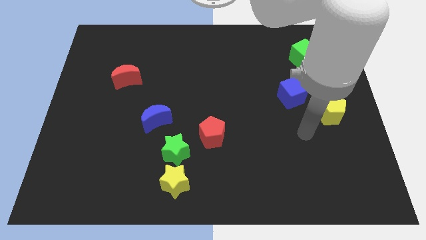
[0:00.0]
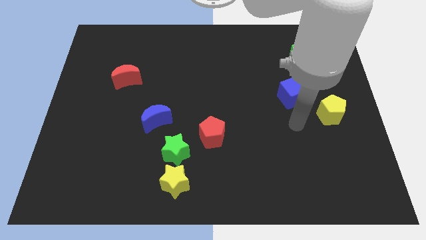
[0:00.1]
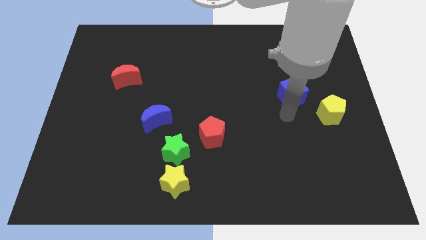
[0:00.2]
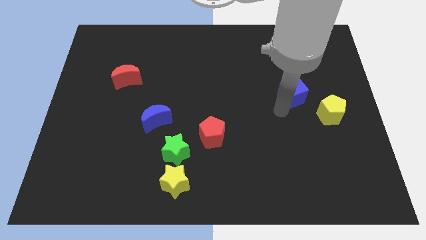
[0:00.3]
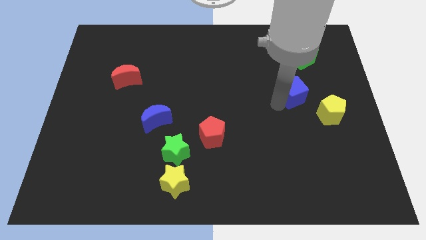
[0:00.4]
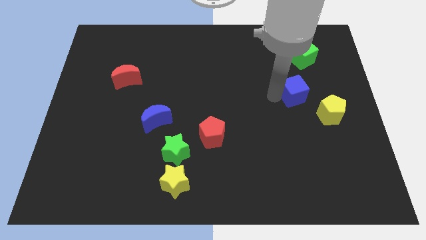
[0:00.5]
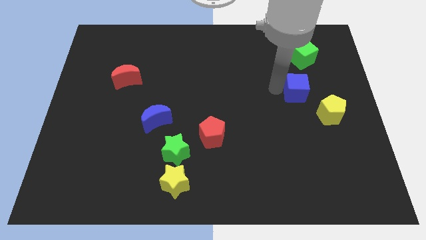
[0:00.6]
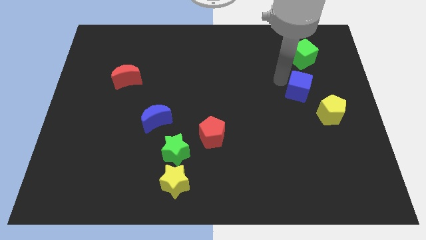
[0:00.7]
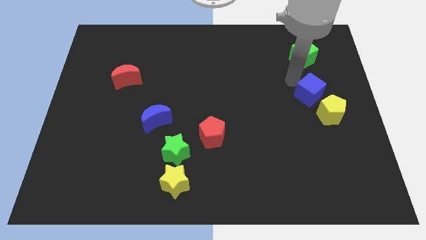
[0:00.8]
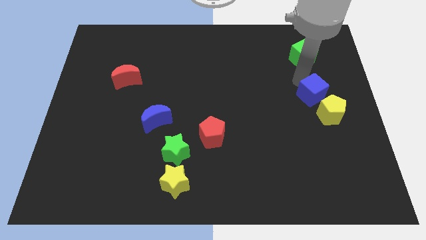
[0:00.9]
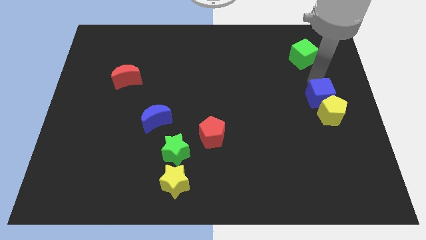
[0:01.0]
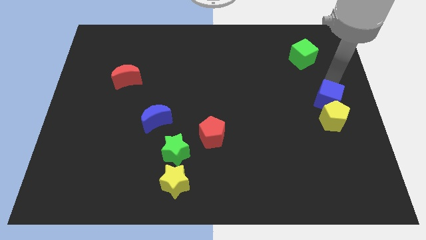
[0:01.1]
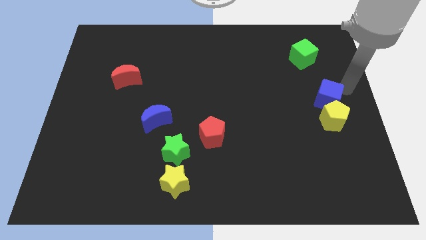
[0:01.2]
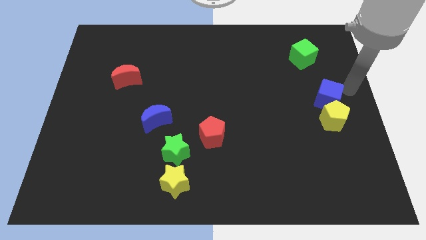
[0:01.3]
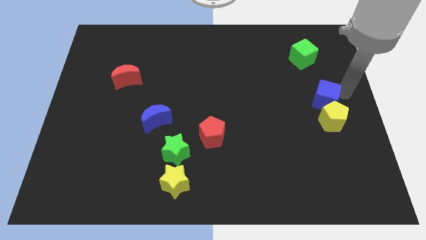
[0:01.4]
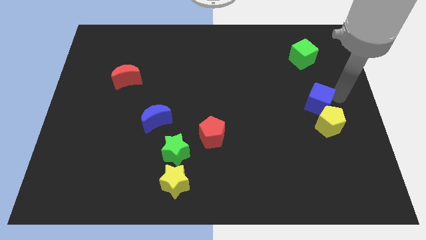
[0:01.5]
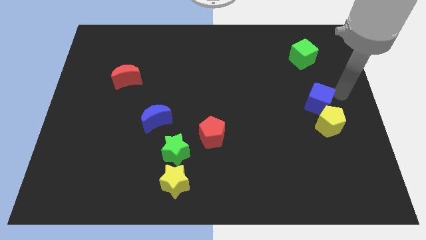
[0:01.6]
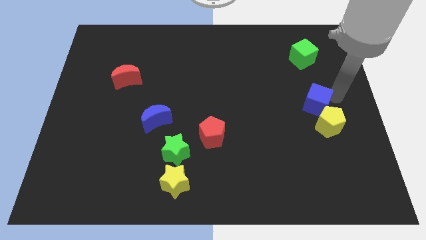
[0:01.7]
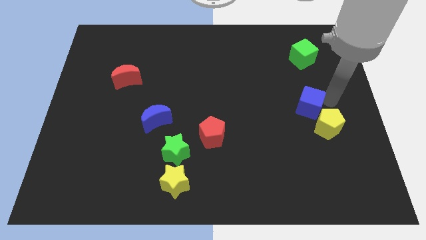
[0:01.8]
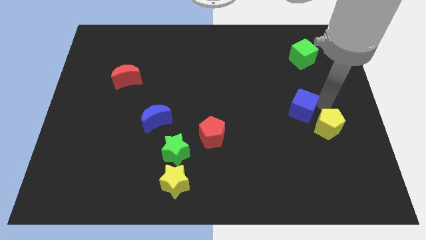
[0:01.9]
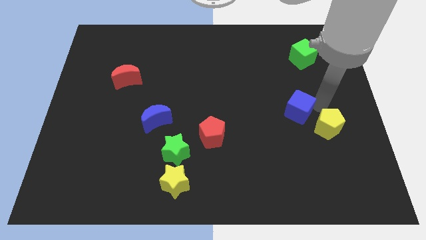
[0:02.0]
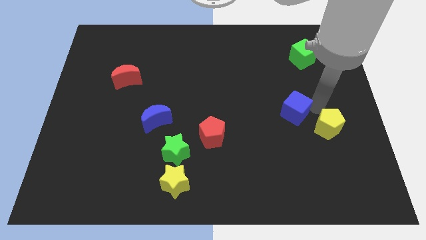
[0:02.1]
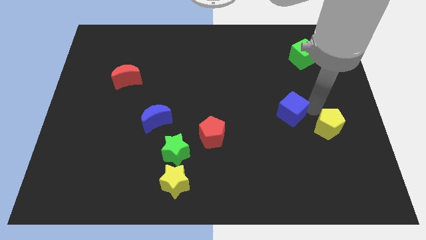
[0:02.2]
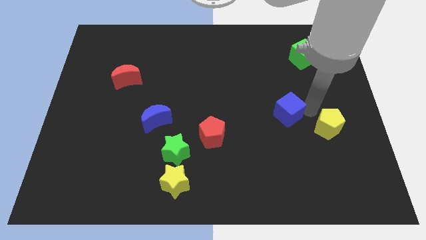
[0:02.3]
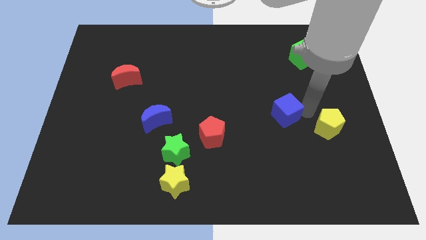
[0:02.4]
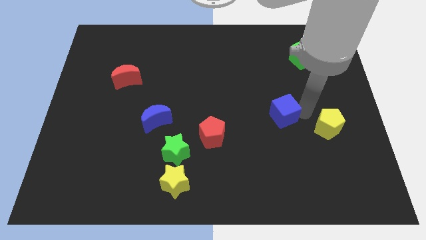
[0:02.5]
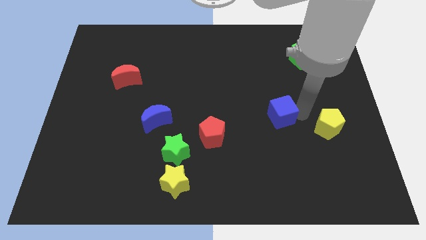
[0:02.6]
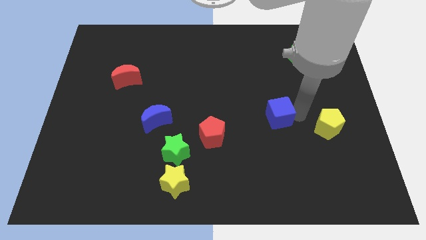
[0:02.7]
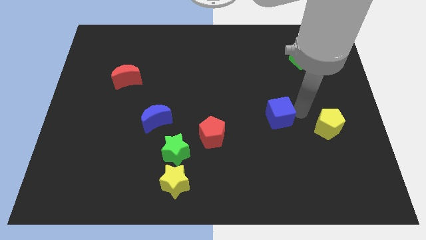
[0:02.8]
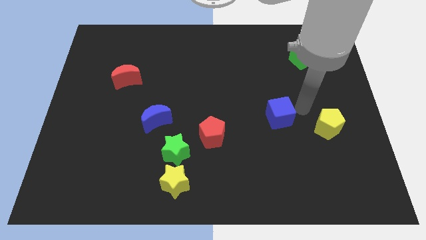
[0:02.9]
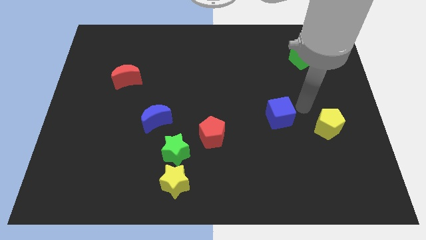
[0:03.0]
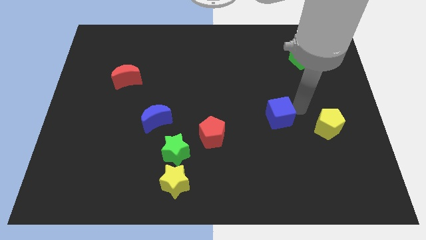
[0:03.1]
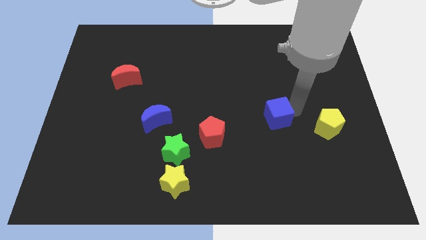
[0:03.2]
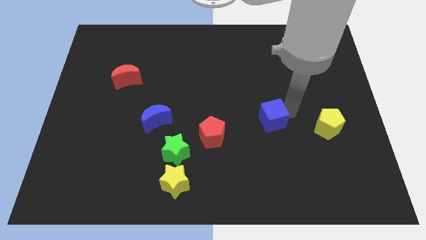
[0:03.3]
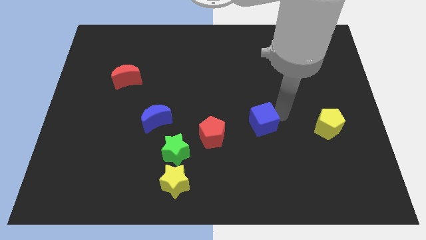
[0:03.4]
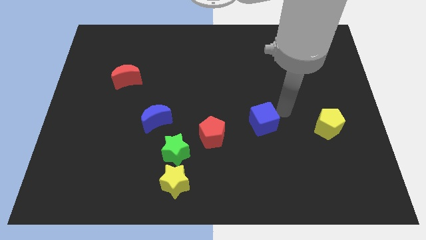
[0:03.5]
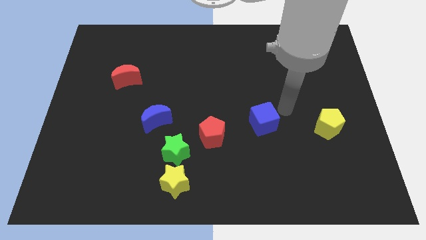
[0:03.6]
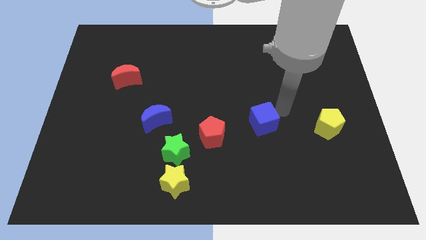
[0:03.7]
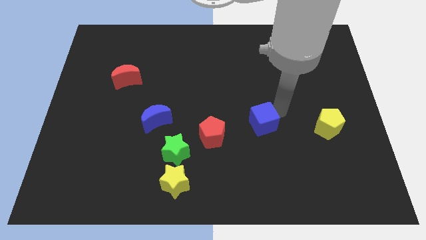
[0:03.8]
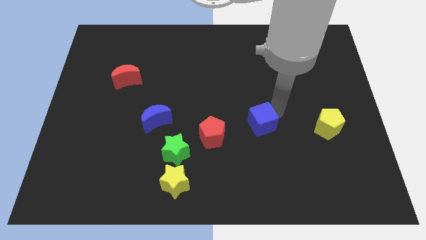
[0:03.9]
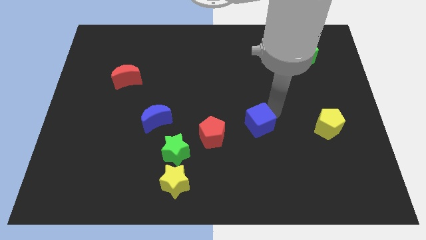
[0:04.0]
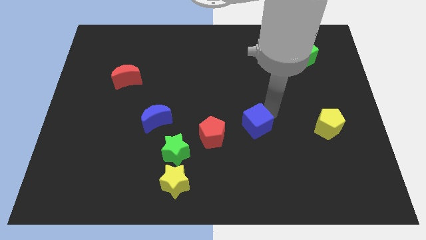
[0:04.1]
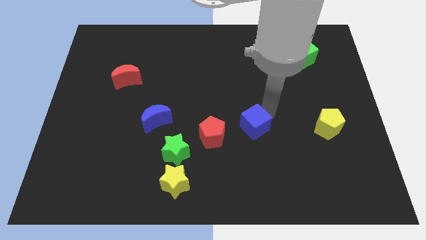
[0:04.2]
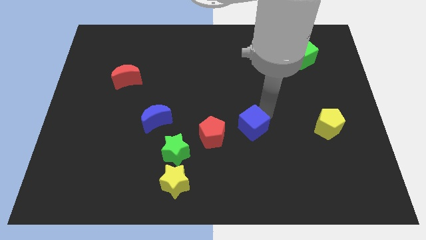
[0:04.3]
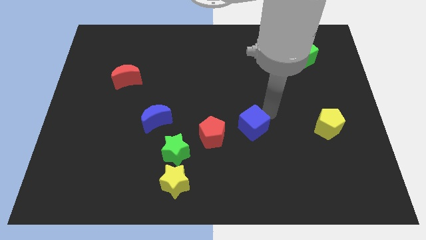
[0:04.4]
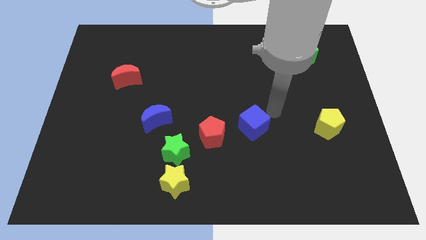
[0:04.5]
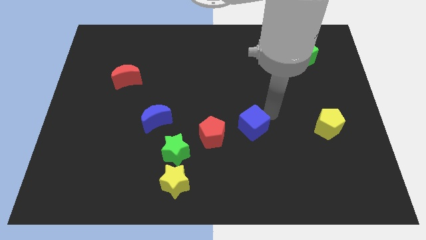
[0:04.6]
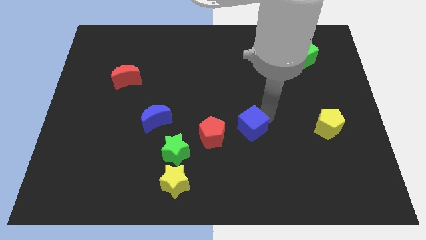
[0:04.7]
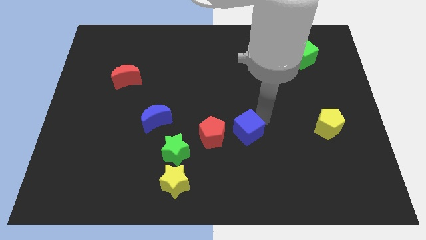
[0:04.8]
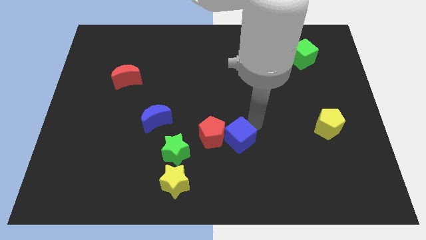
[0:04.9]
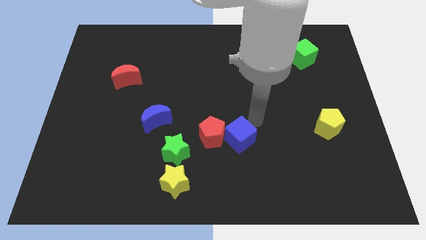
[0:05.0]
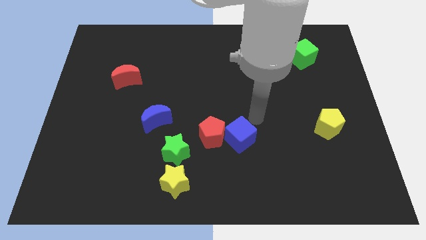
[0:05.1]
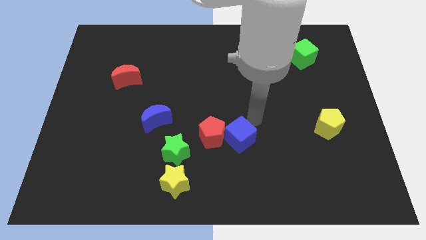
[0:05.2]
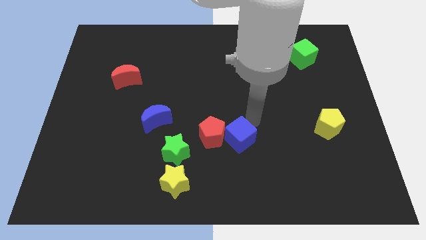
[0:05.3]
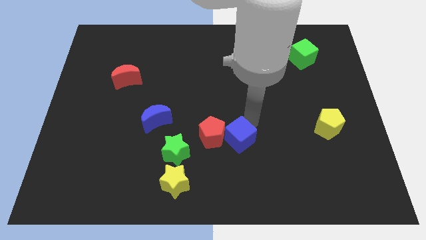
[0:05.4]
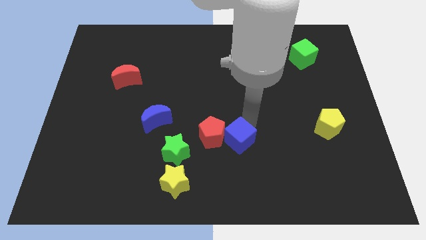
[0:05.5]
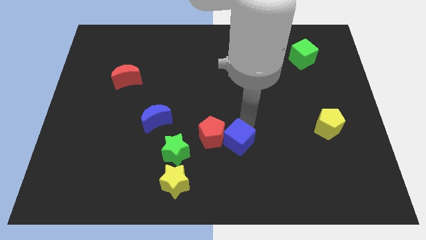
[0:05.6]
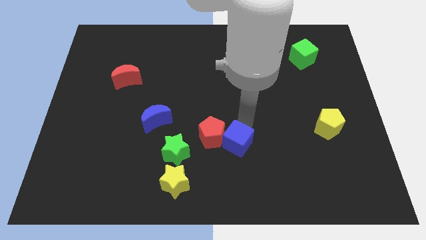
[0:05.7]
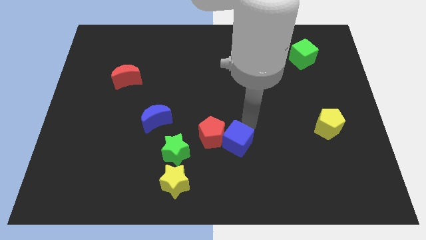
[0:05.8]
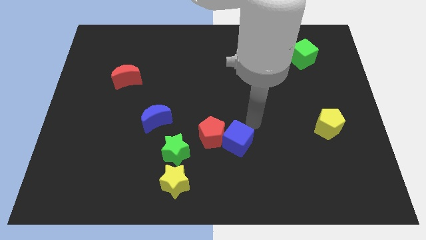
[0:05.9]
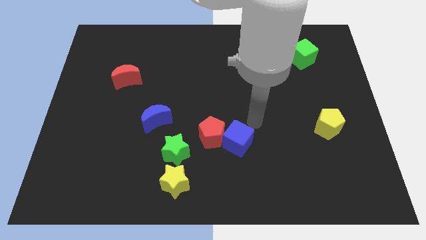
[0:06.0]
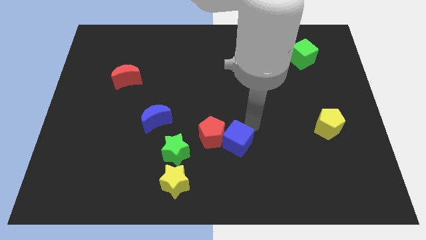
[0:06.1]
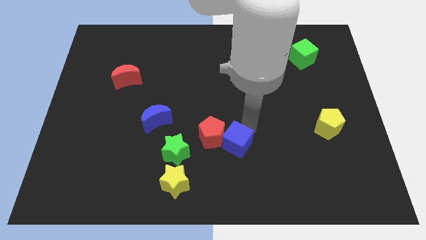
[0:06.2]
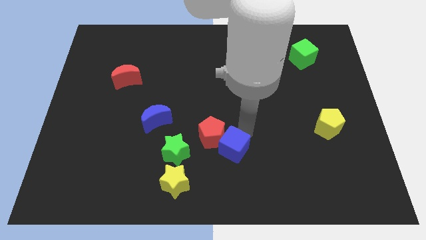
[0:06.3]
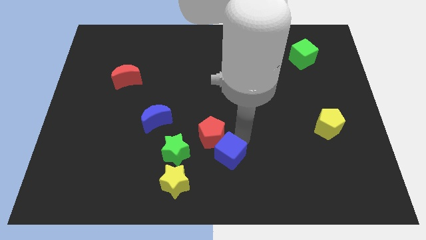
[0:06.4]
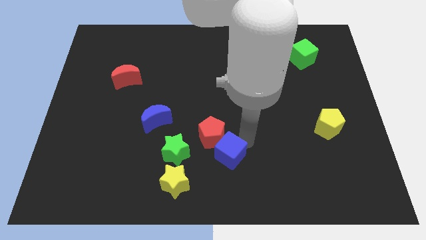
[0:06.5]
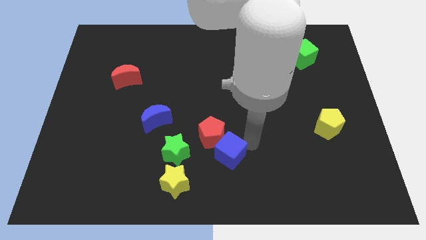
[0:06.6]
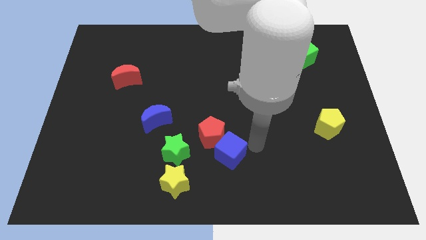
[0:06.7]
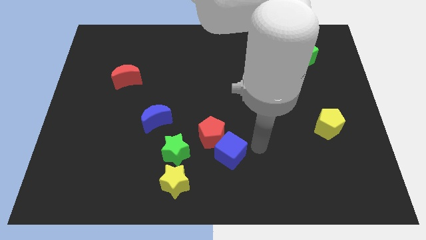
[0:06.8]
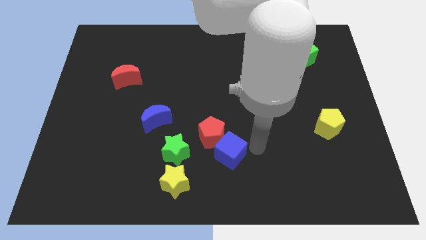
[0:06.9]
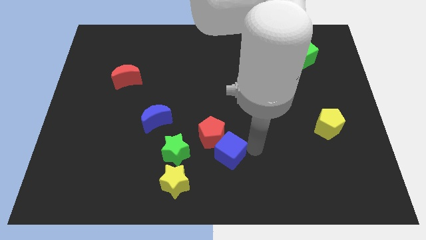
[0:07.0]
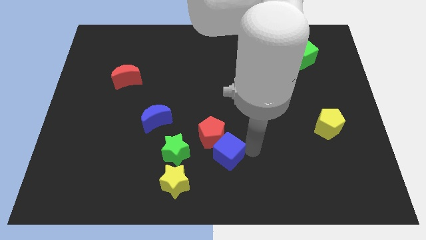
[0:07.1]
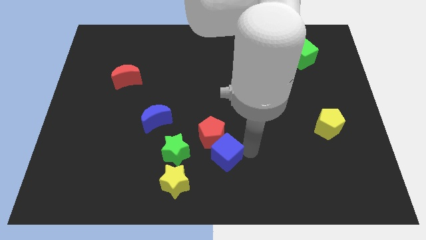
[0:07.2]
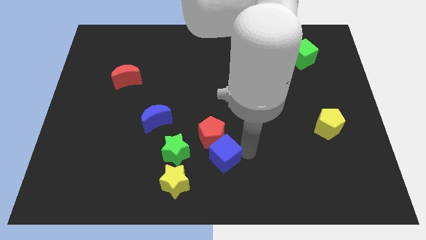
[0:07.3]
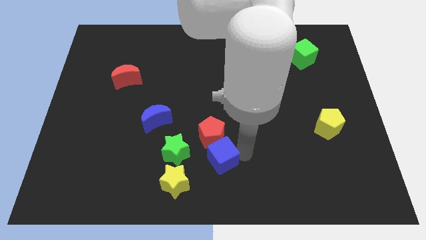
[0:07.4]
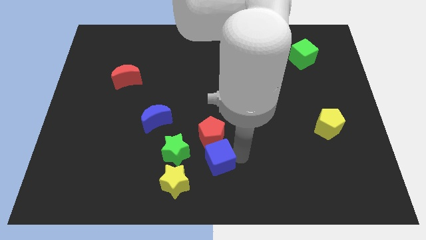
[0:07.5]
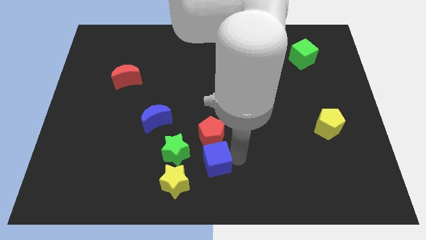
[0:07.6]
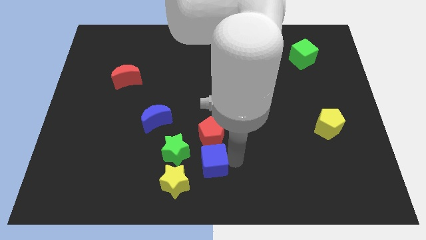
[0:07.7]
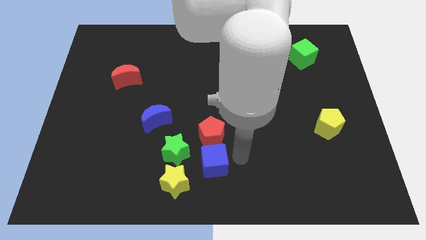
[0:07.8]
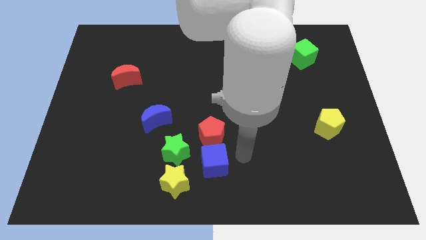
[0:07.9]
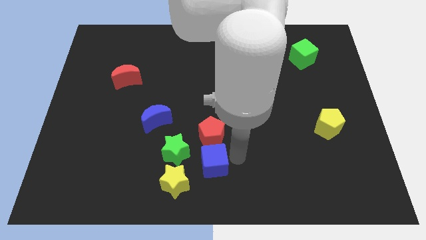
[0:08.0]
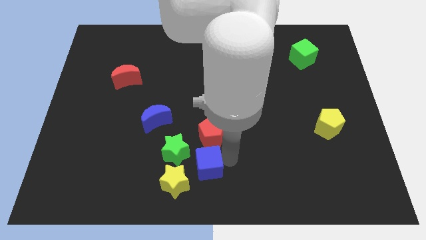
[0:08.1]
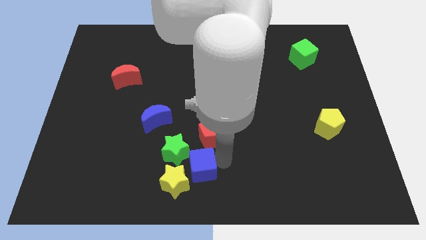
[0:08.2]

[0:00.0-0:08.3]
slide the blue cube to the yellow star
